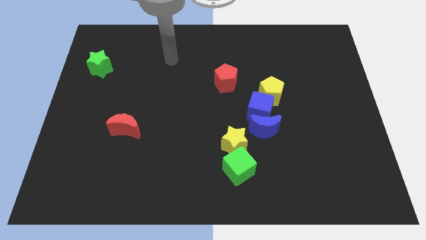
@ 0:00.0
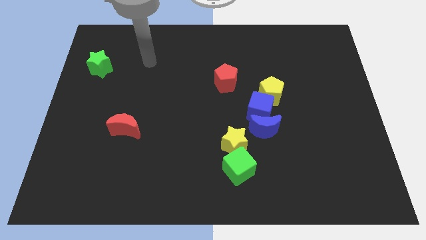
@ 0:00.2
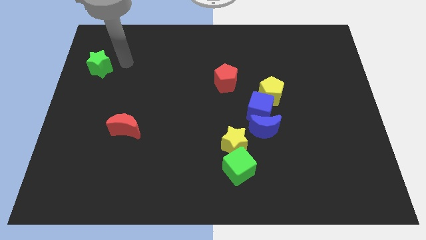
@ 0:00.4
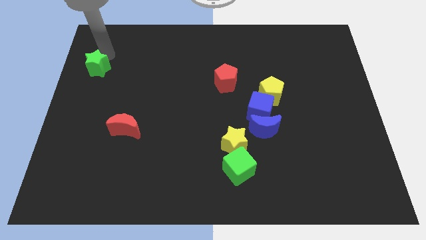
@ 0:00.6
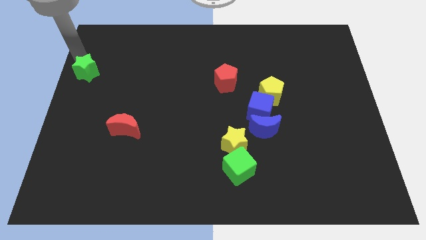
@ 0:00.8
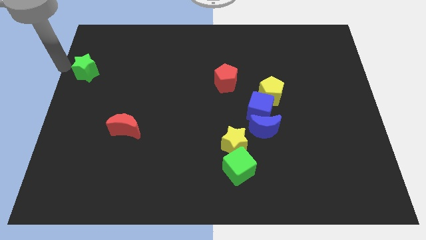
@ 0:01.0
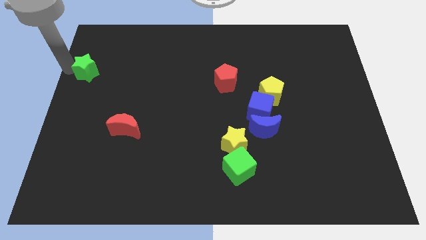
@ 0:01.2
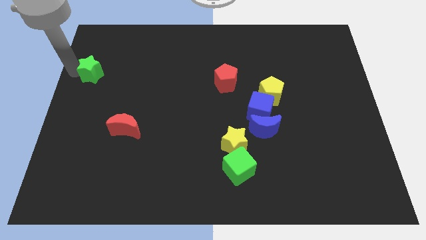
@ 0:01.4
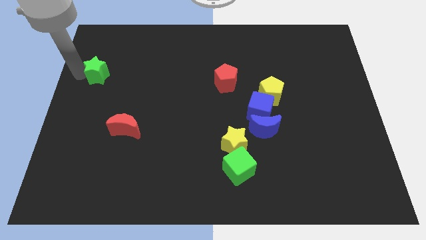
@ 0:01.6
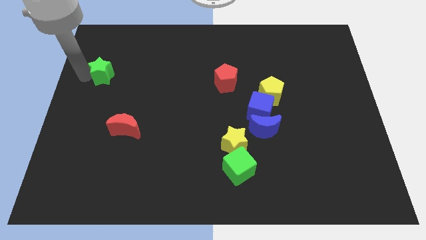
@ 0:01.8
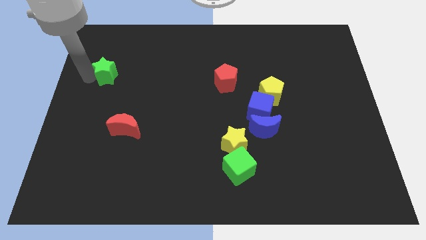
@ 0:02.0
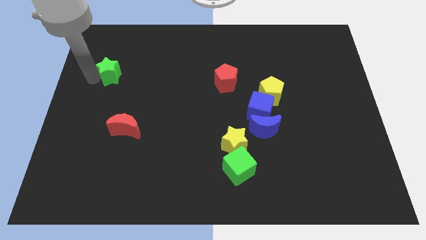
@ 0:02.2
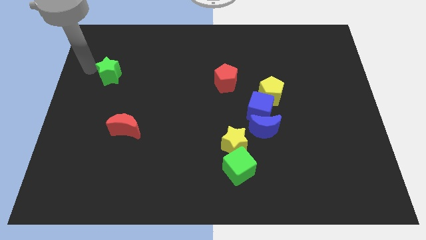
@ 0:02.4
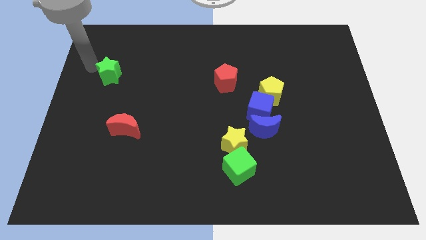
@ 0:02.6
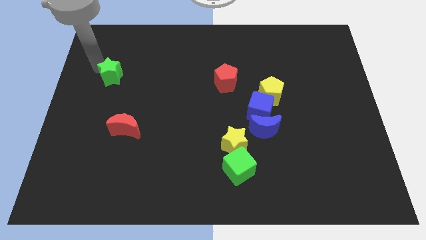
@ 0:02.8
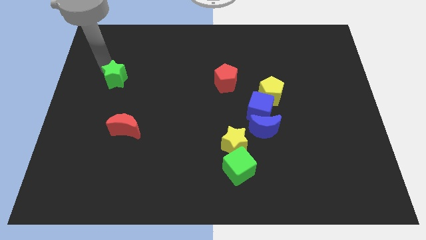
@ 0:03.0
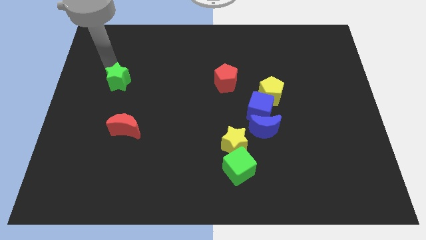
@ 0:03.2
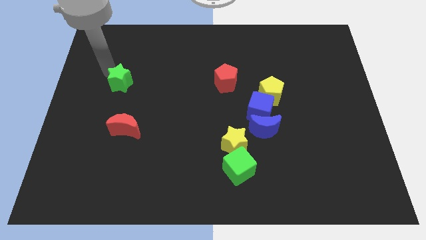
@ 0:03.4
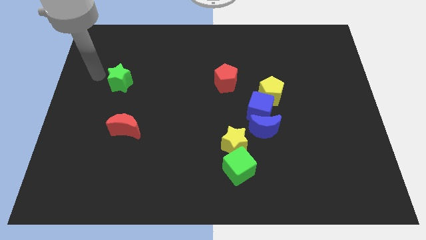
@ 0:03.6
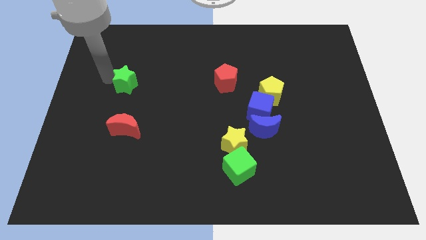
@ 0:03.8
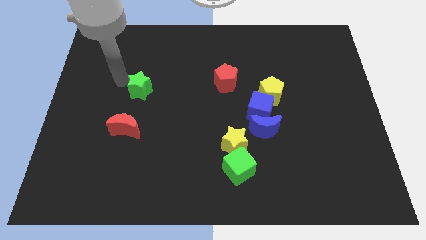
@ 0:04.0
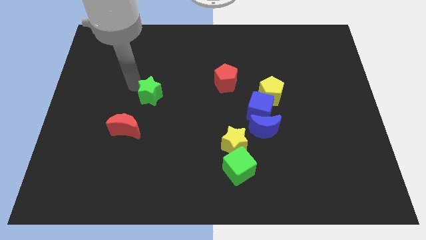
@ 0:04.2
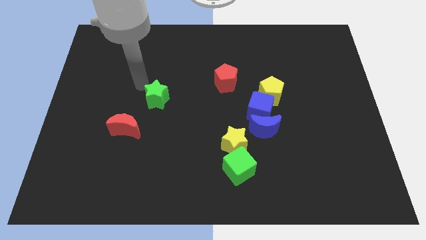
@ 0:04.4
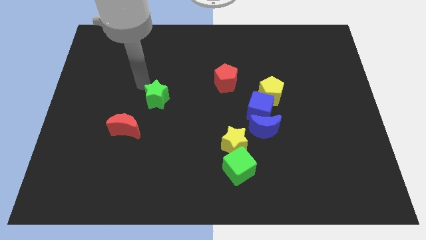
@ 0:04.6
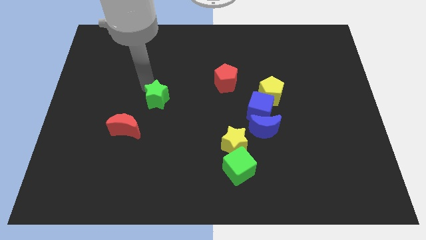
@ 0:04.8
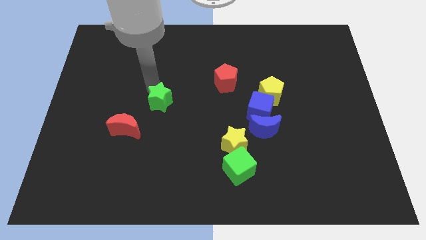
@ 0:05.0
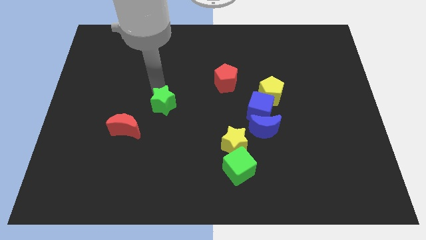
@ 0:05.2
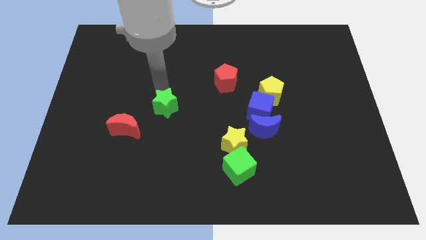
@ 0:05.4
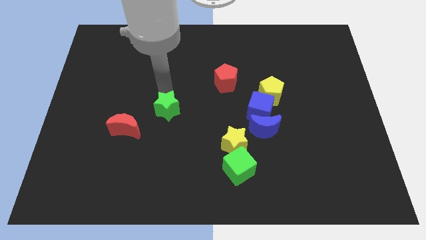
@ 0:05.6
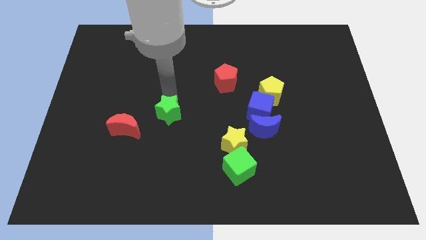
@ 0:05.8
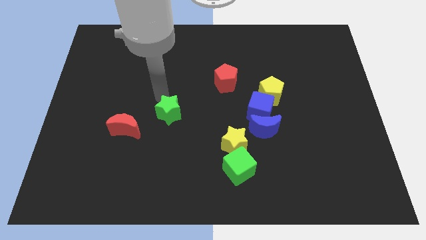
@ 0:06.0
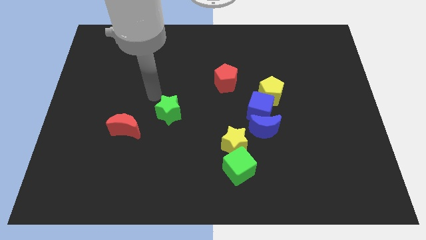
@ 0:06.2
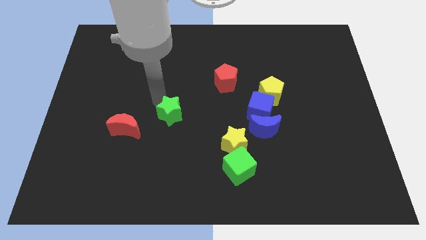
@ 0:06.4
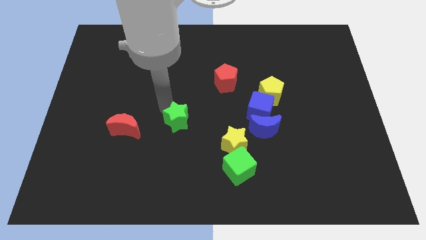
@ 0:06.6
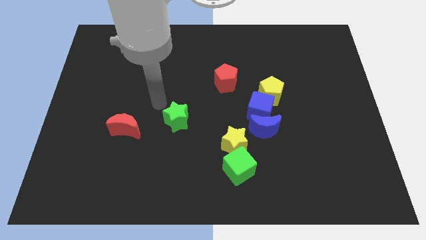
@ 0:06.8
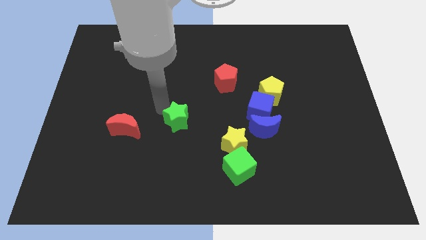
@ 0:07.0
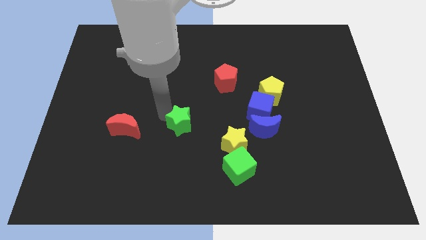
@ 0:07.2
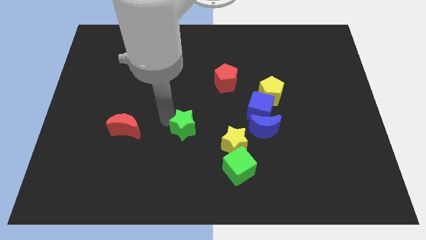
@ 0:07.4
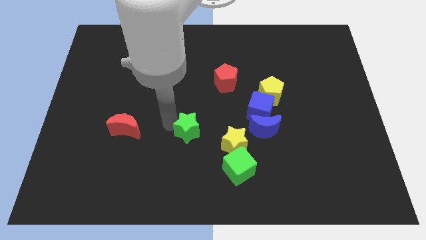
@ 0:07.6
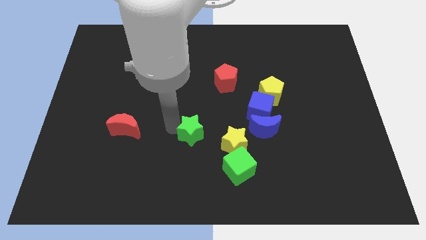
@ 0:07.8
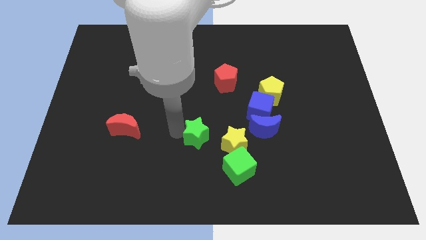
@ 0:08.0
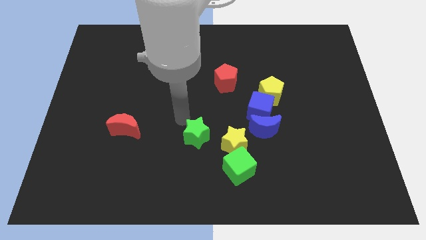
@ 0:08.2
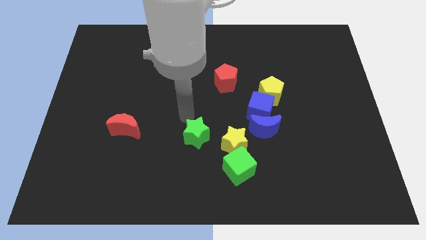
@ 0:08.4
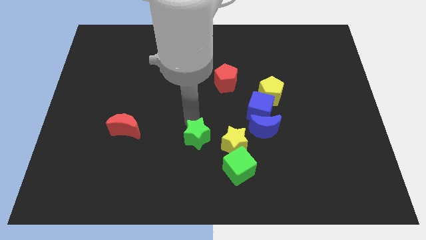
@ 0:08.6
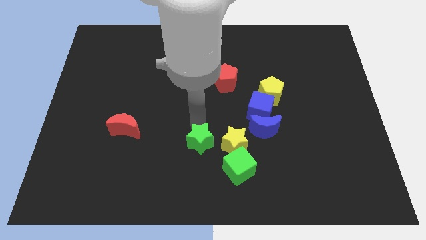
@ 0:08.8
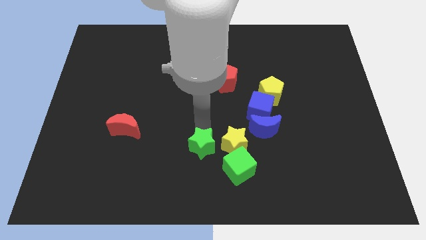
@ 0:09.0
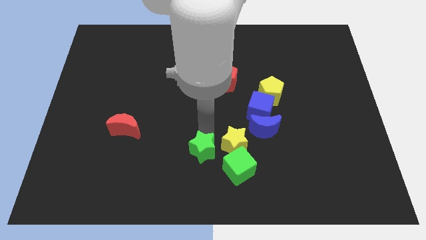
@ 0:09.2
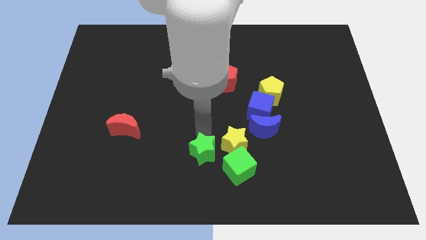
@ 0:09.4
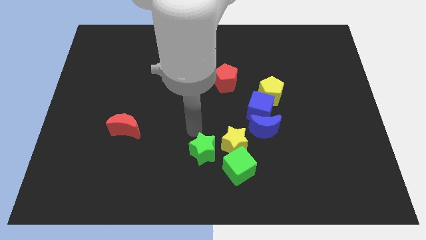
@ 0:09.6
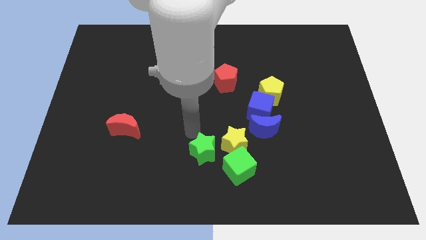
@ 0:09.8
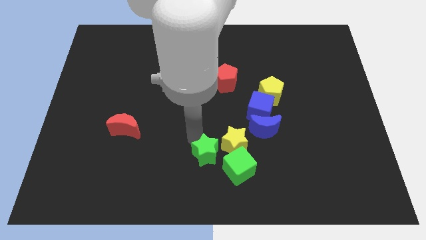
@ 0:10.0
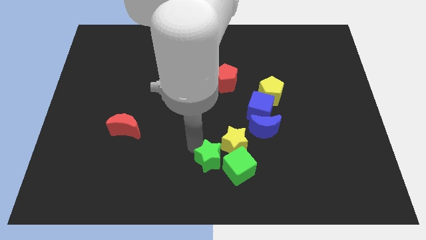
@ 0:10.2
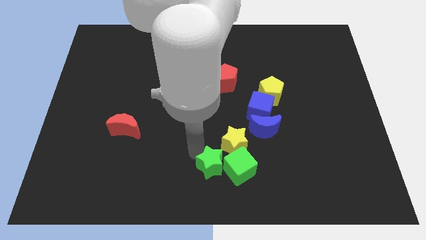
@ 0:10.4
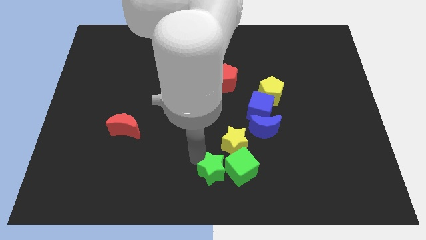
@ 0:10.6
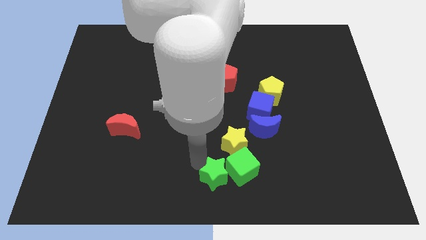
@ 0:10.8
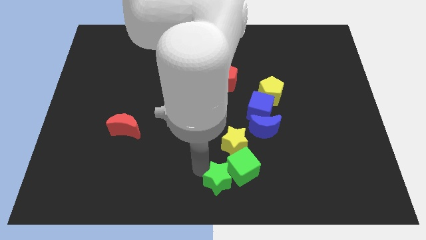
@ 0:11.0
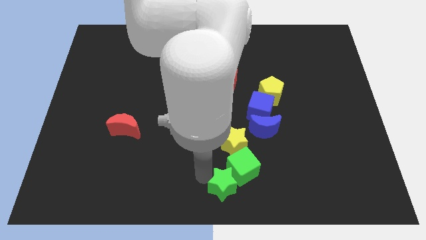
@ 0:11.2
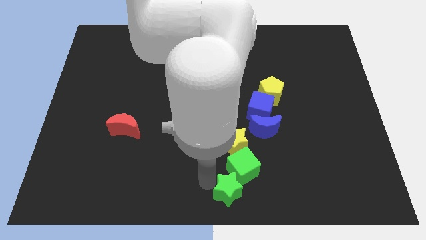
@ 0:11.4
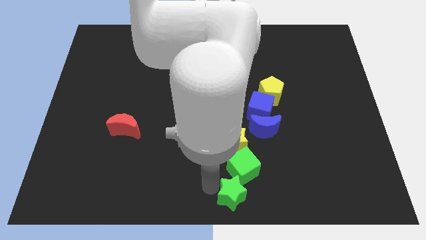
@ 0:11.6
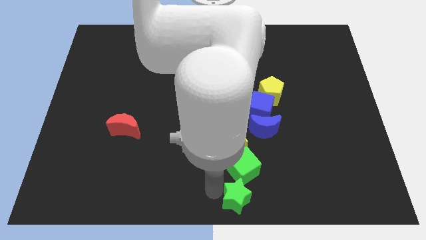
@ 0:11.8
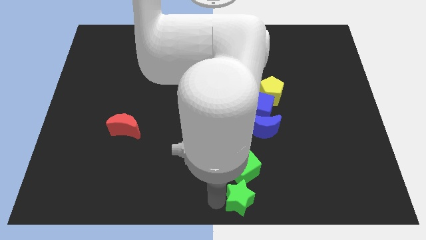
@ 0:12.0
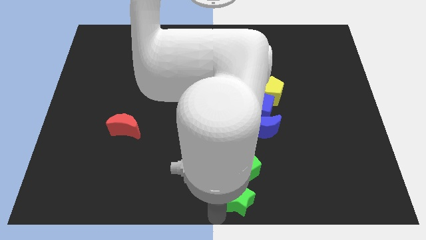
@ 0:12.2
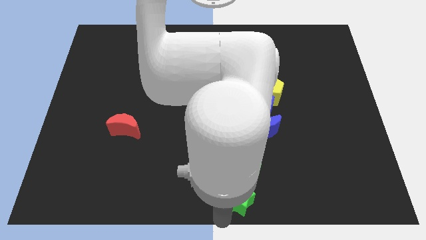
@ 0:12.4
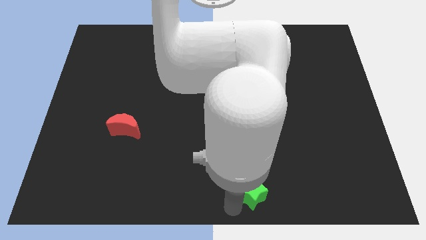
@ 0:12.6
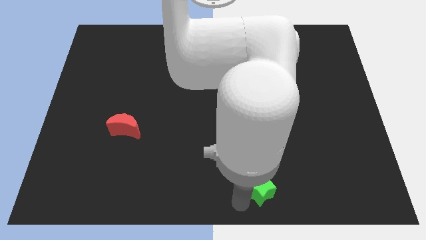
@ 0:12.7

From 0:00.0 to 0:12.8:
slide the green star to the bottom right of the yellow star
